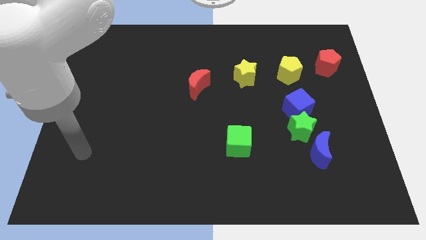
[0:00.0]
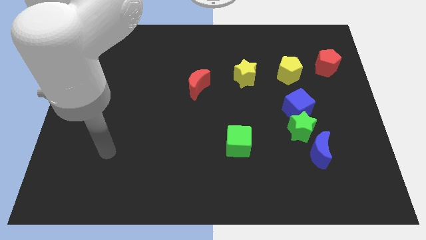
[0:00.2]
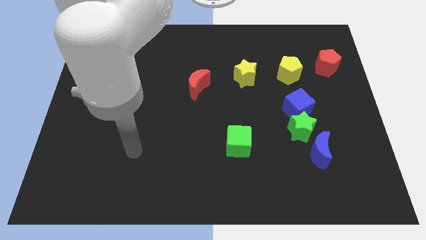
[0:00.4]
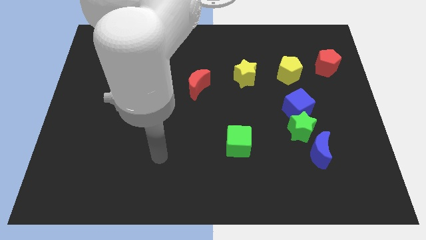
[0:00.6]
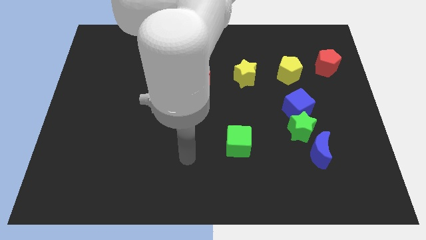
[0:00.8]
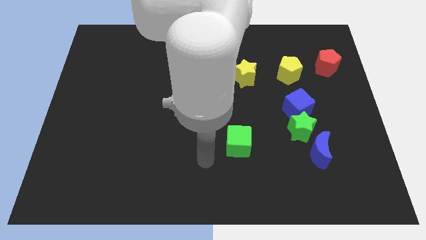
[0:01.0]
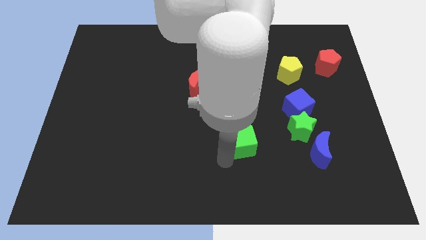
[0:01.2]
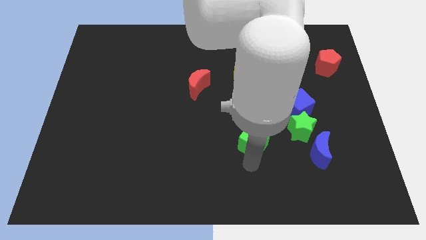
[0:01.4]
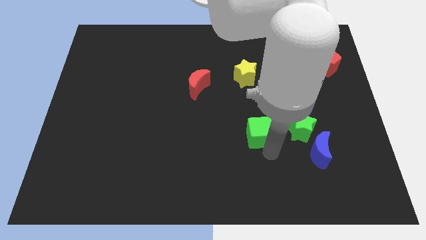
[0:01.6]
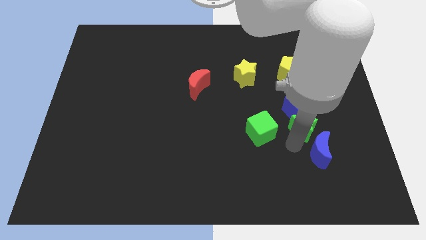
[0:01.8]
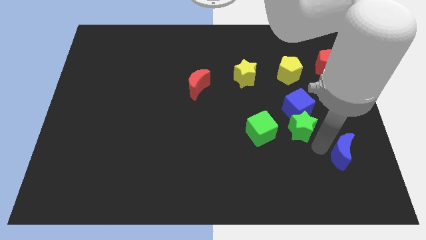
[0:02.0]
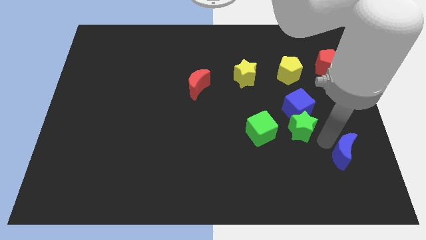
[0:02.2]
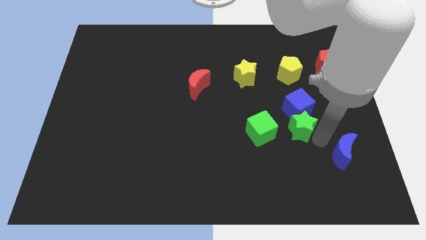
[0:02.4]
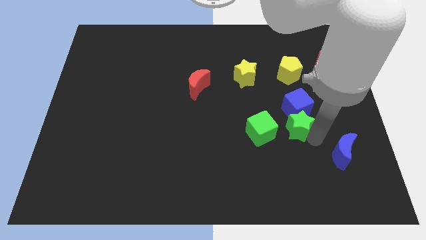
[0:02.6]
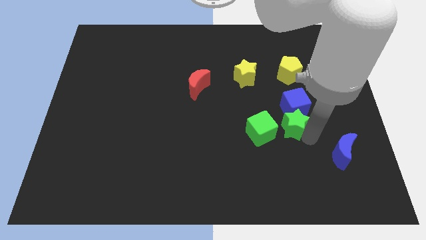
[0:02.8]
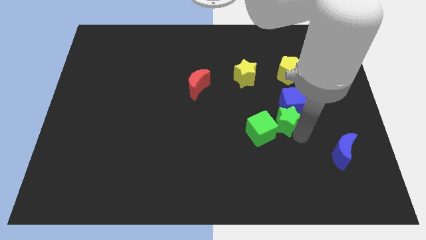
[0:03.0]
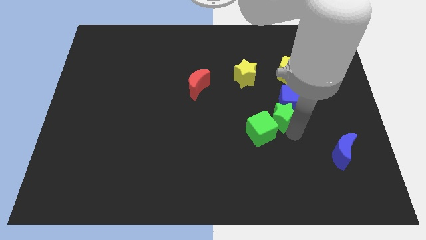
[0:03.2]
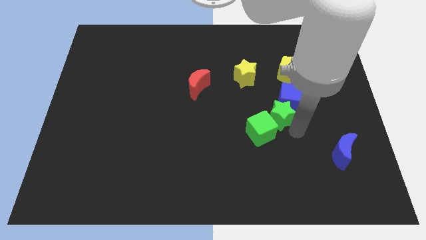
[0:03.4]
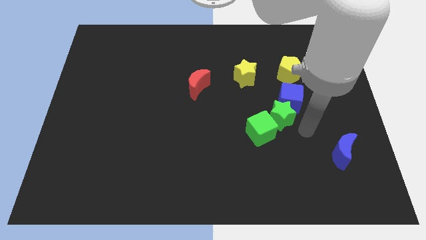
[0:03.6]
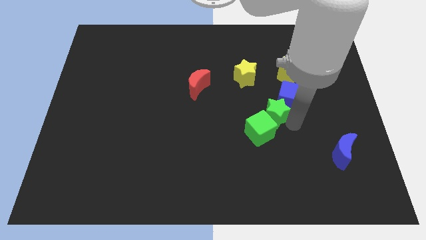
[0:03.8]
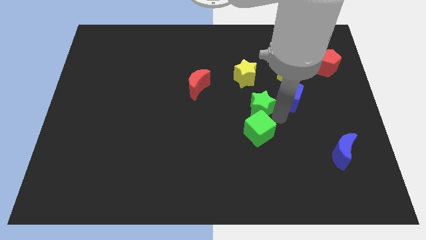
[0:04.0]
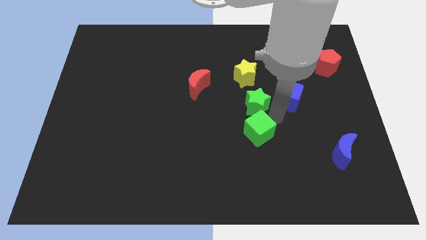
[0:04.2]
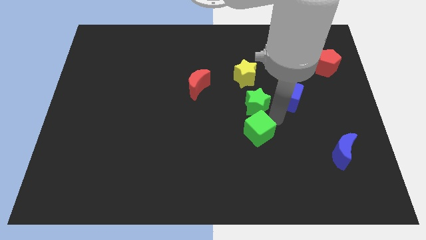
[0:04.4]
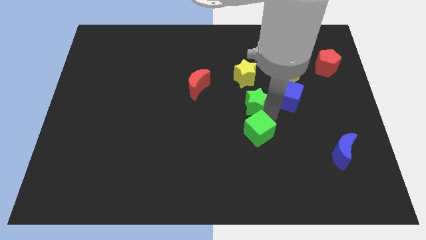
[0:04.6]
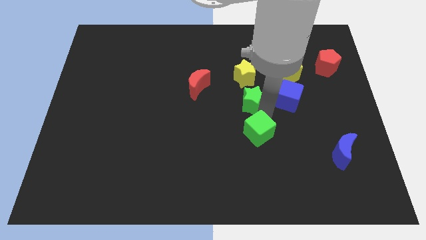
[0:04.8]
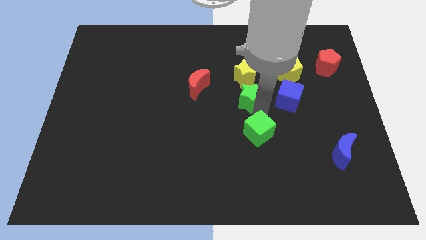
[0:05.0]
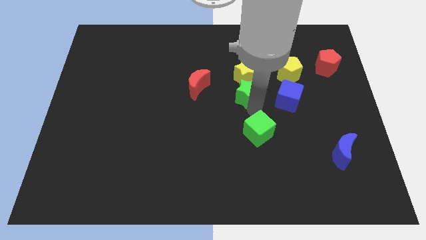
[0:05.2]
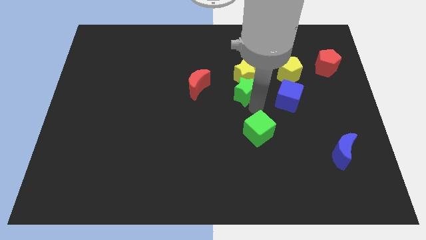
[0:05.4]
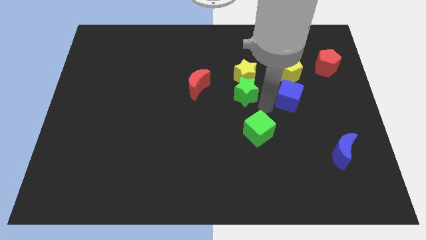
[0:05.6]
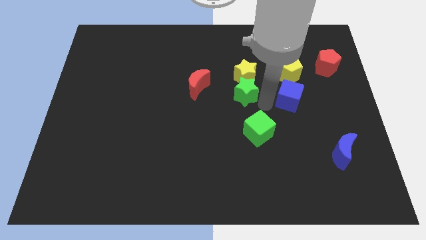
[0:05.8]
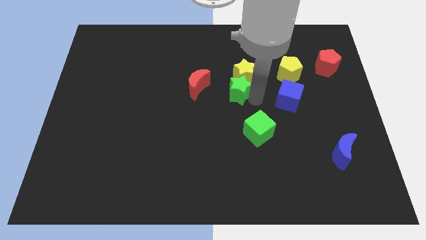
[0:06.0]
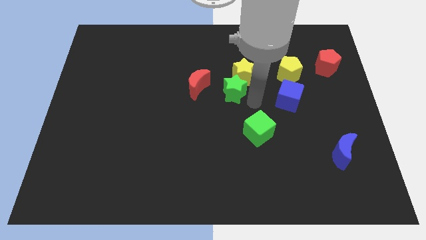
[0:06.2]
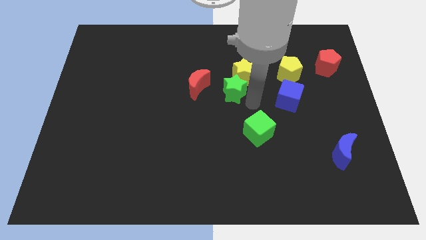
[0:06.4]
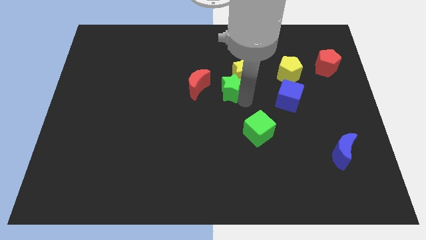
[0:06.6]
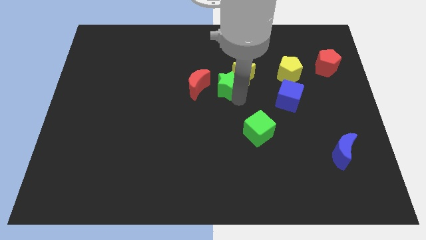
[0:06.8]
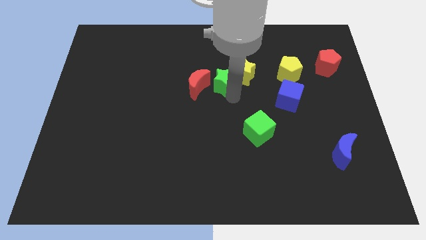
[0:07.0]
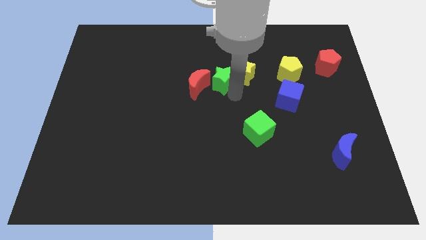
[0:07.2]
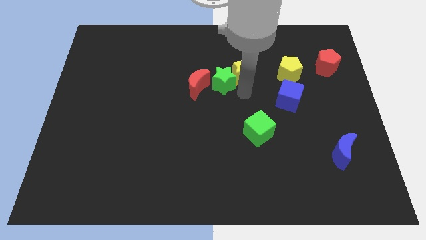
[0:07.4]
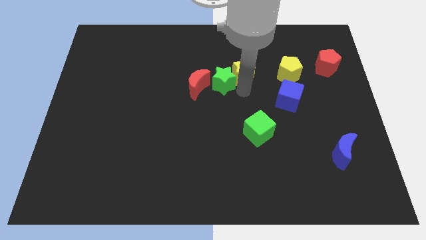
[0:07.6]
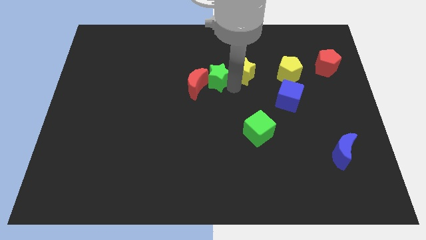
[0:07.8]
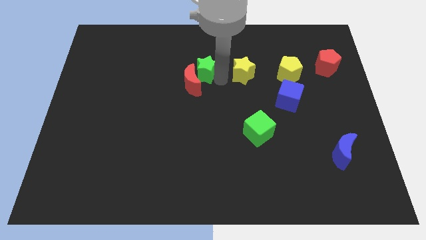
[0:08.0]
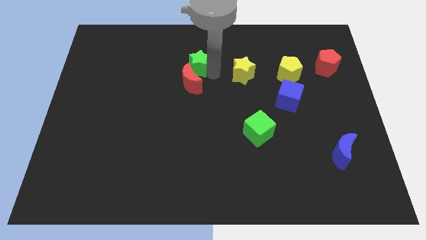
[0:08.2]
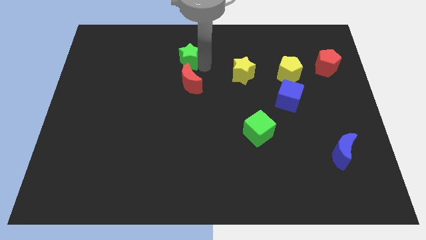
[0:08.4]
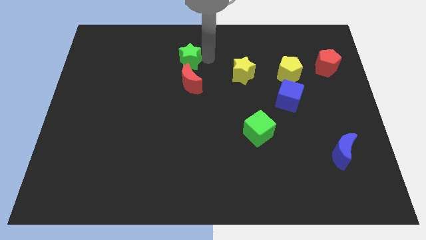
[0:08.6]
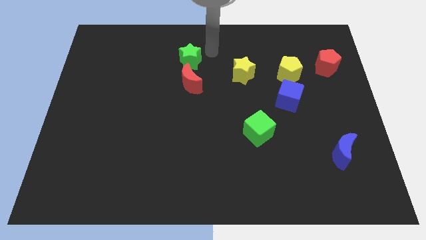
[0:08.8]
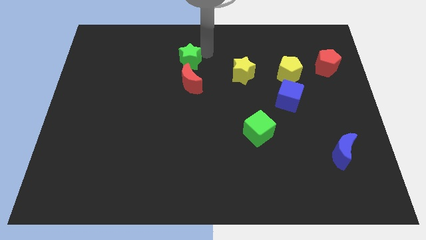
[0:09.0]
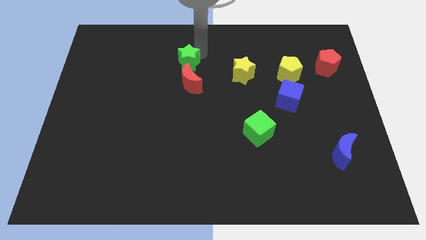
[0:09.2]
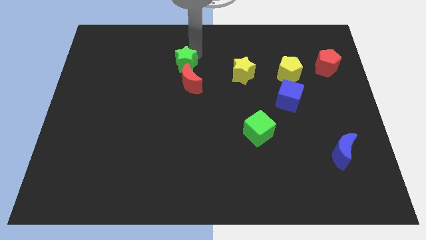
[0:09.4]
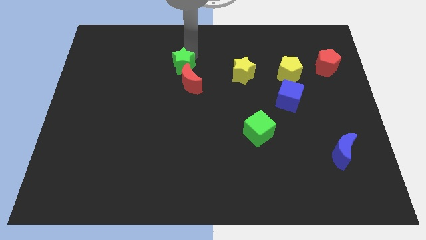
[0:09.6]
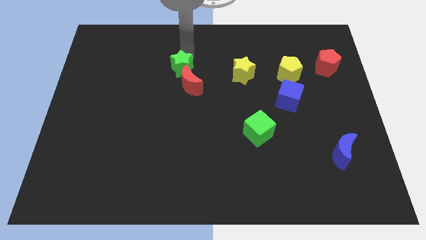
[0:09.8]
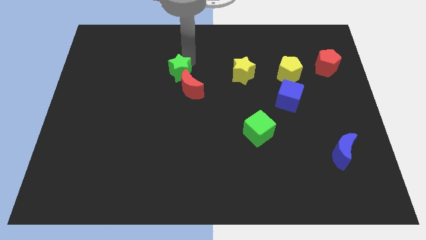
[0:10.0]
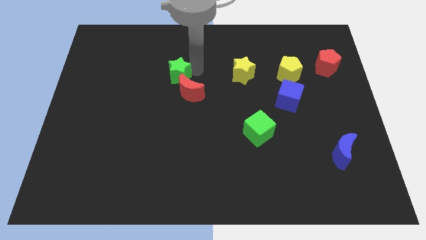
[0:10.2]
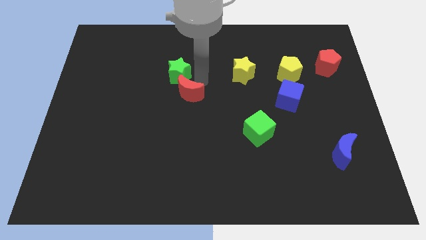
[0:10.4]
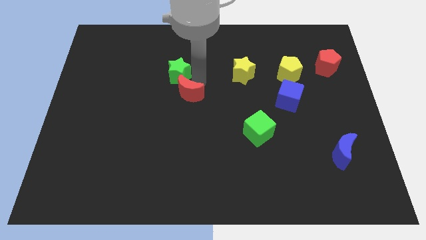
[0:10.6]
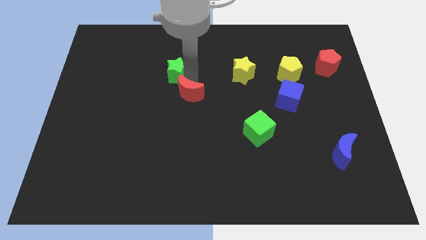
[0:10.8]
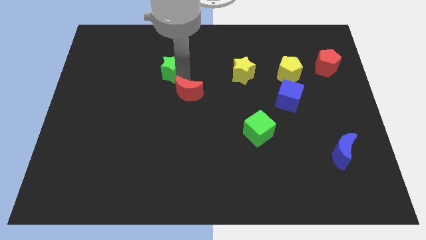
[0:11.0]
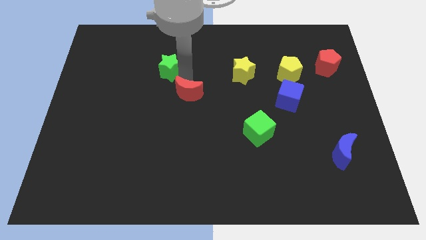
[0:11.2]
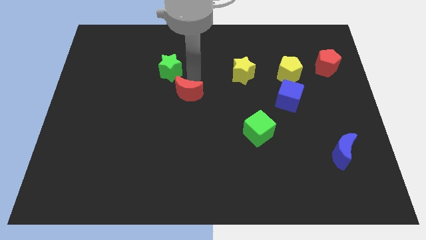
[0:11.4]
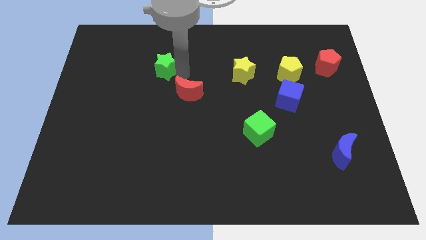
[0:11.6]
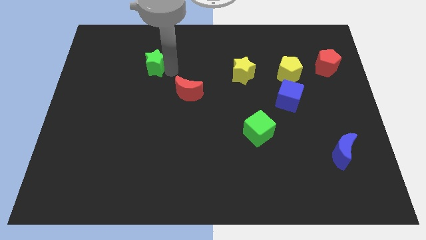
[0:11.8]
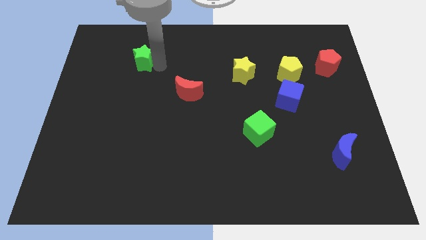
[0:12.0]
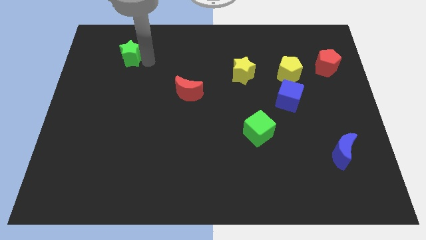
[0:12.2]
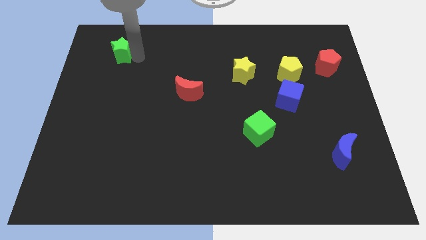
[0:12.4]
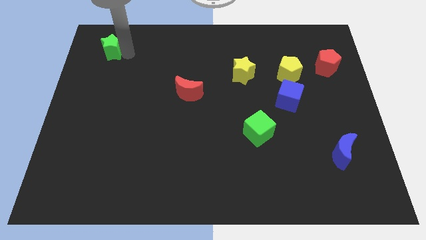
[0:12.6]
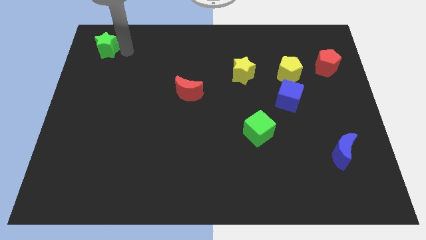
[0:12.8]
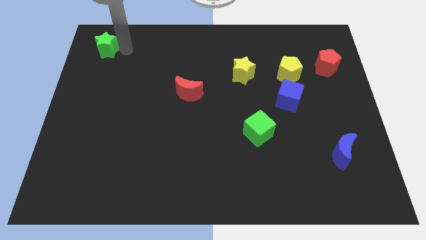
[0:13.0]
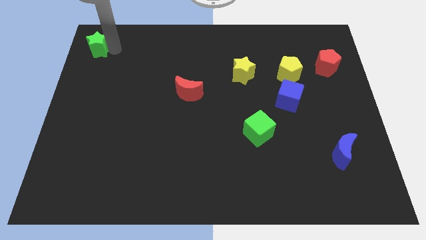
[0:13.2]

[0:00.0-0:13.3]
push the green star to the top left corner
